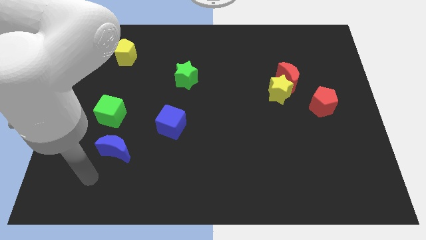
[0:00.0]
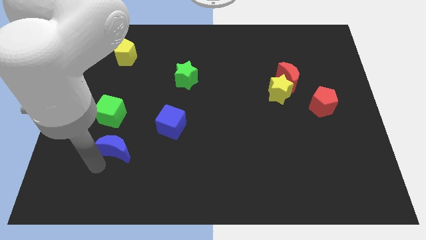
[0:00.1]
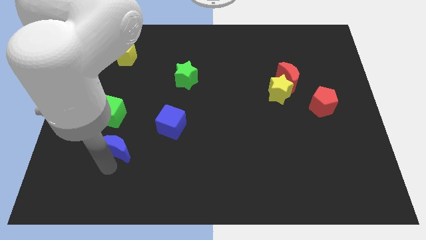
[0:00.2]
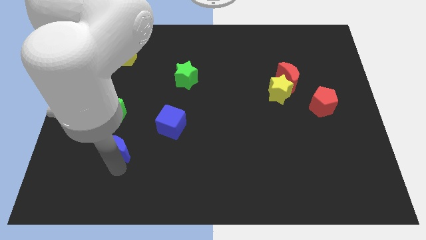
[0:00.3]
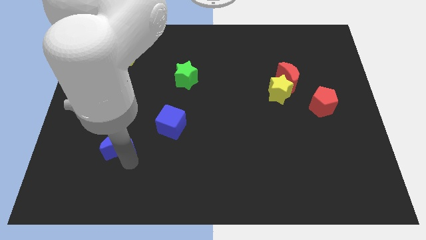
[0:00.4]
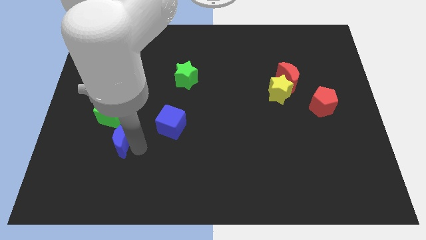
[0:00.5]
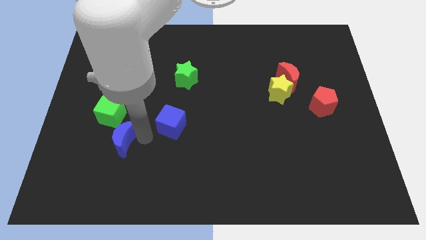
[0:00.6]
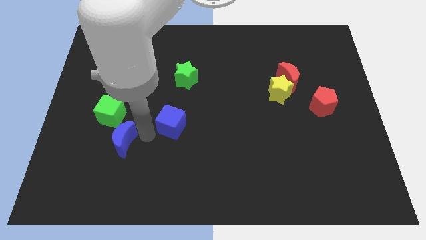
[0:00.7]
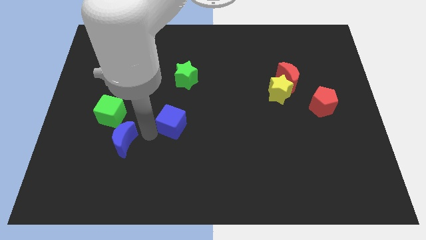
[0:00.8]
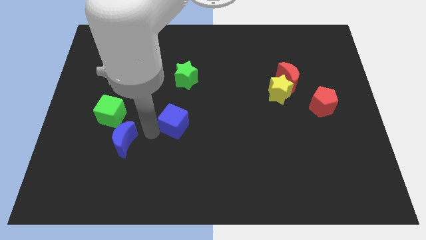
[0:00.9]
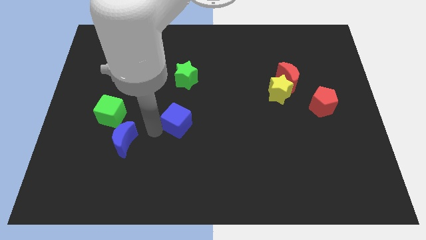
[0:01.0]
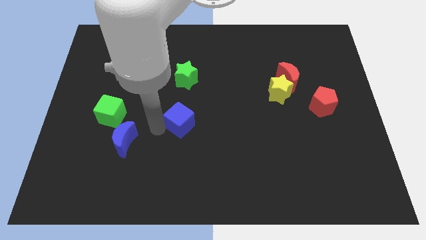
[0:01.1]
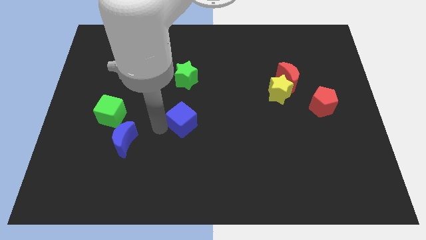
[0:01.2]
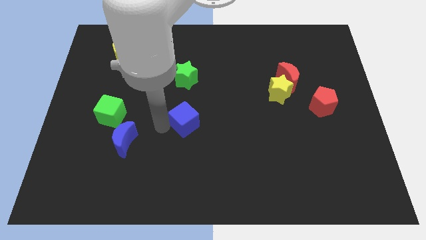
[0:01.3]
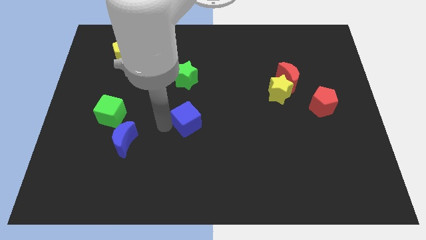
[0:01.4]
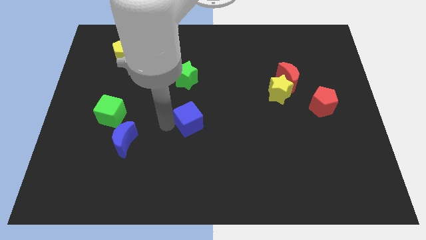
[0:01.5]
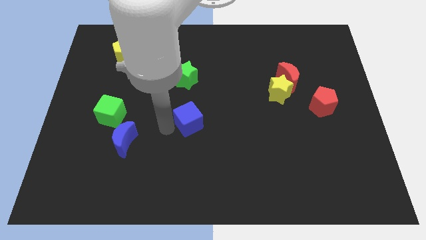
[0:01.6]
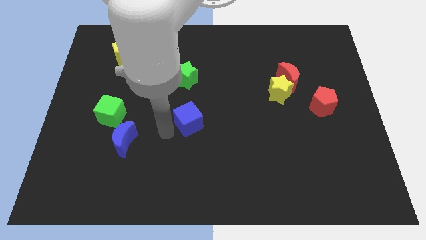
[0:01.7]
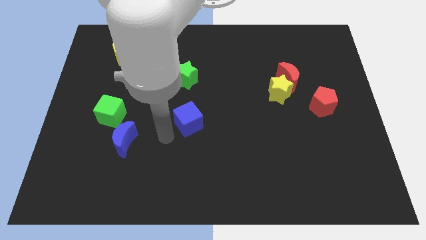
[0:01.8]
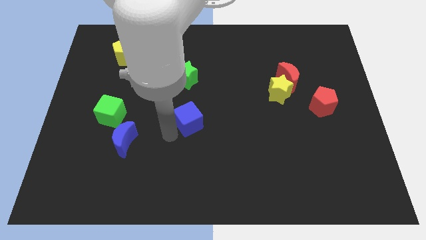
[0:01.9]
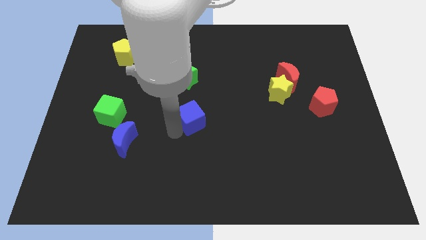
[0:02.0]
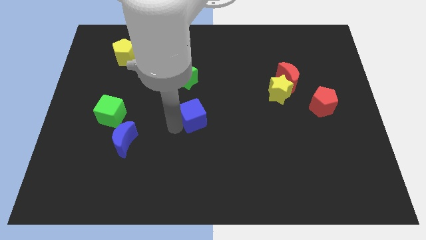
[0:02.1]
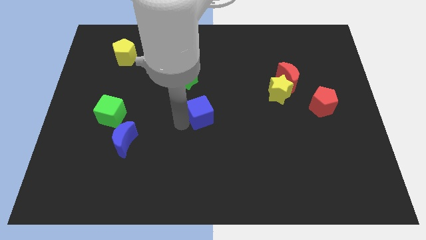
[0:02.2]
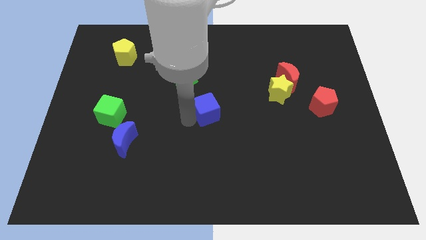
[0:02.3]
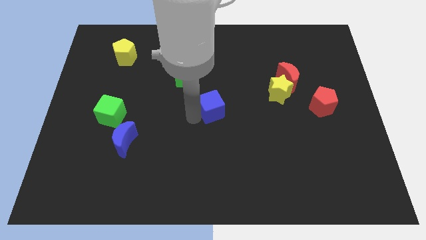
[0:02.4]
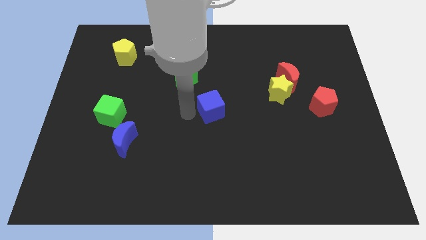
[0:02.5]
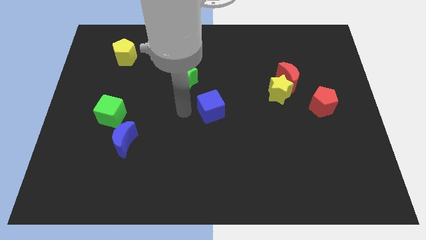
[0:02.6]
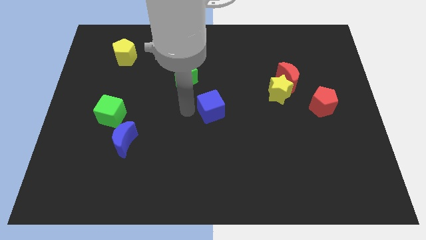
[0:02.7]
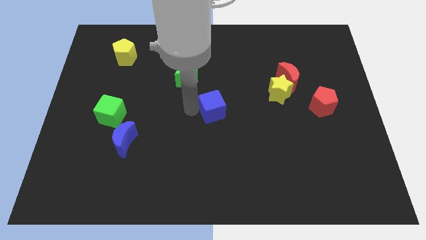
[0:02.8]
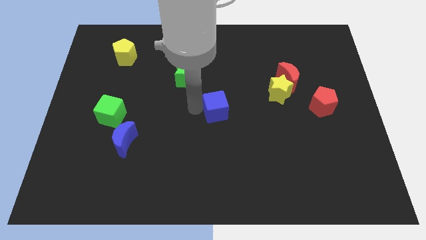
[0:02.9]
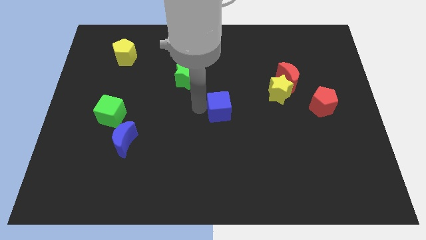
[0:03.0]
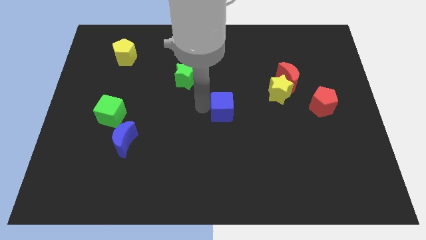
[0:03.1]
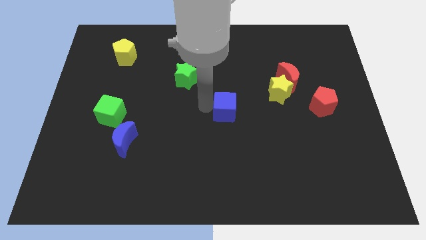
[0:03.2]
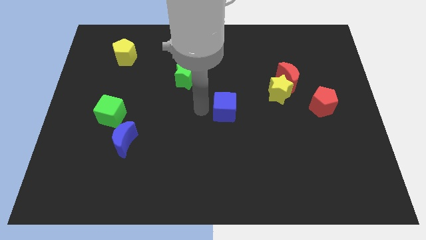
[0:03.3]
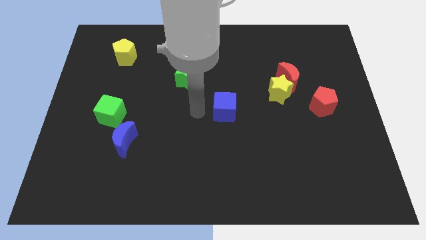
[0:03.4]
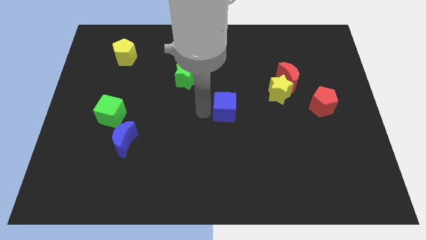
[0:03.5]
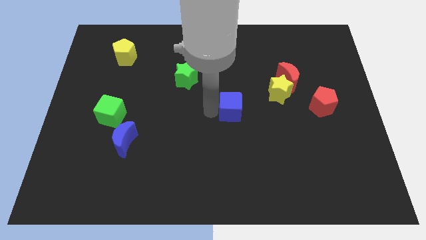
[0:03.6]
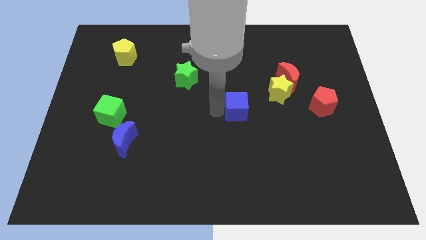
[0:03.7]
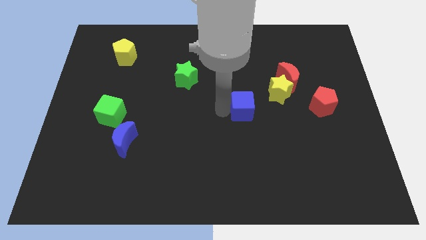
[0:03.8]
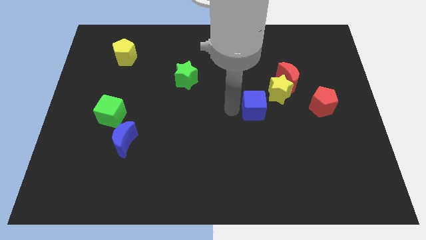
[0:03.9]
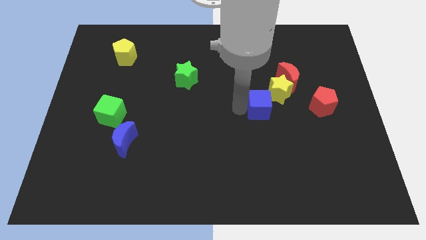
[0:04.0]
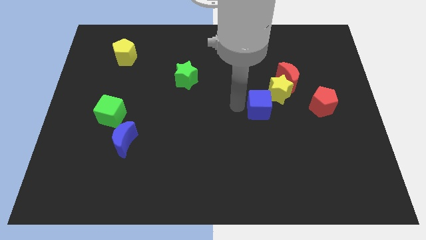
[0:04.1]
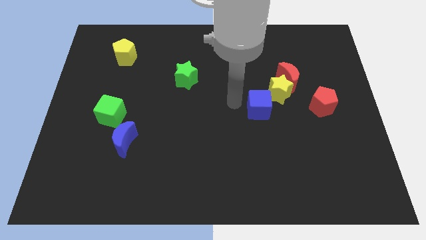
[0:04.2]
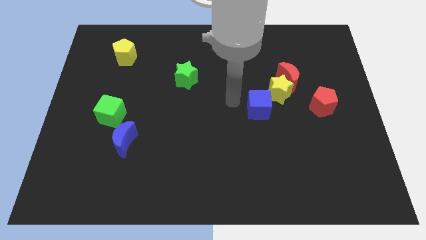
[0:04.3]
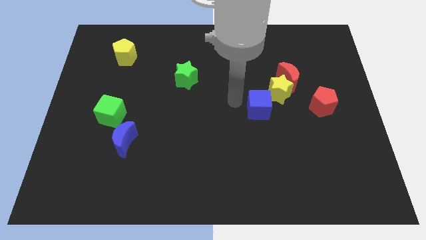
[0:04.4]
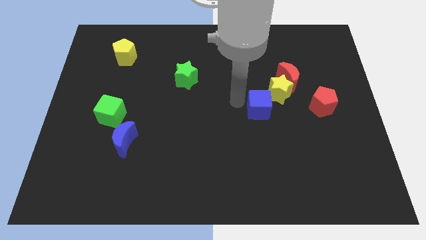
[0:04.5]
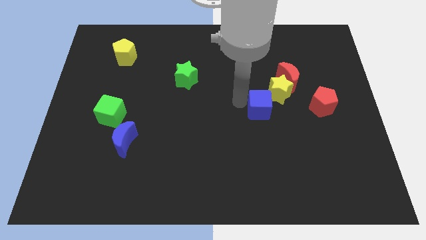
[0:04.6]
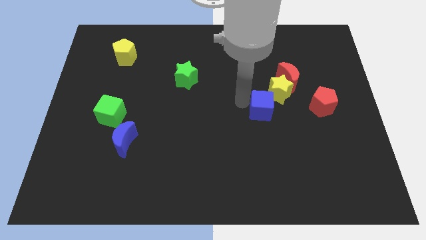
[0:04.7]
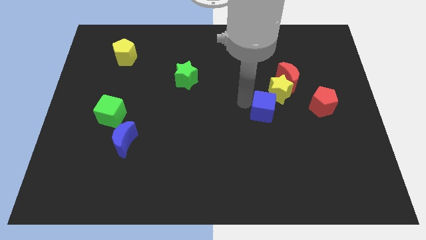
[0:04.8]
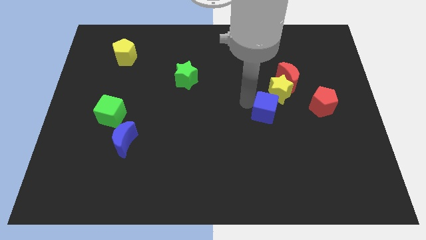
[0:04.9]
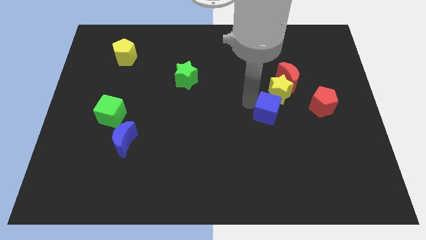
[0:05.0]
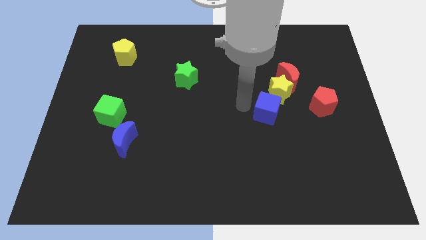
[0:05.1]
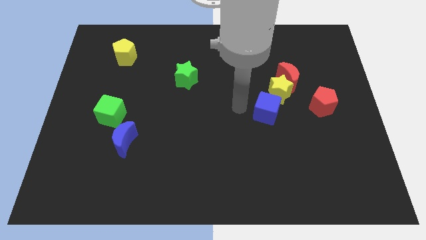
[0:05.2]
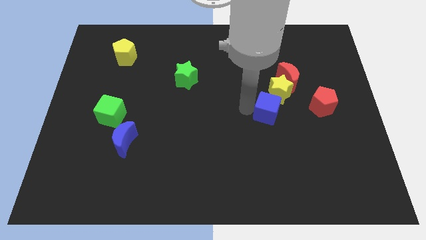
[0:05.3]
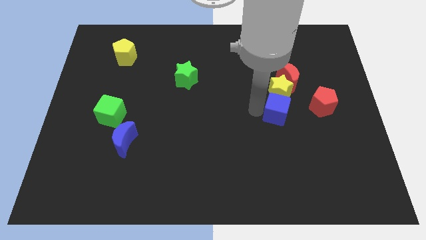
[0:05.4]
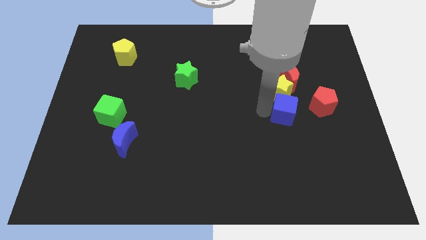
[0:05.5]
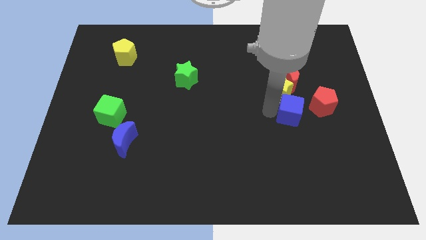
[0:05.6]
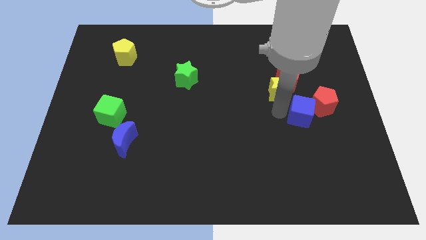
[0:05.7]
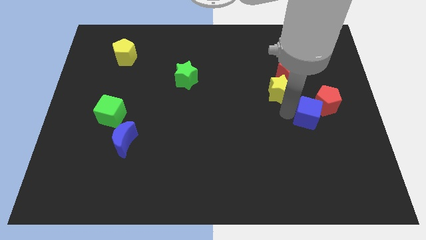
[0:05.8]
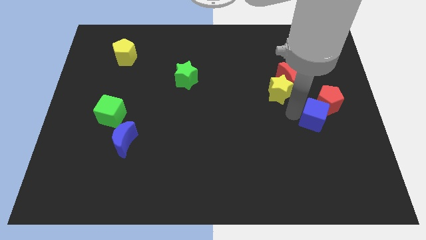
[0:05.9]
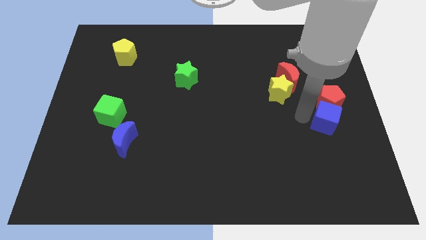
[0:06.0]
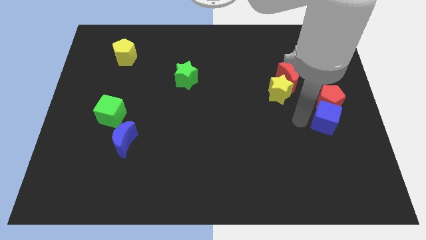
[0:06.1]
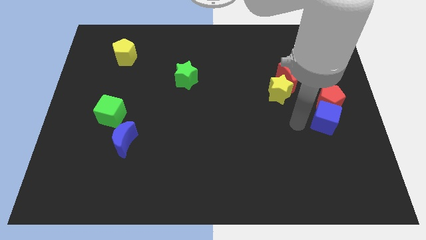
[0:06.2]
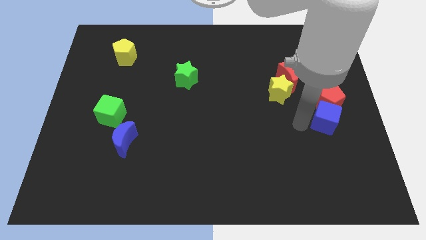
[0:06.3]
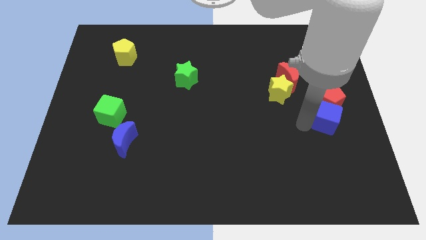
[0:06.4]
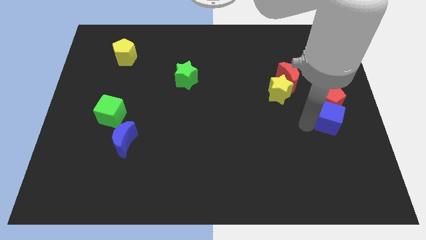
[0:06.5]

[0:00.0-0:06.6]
push the blue cube to the right side

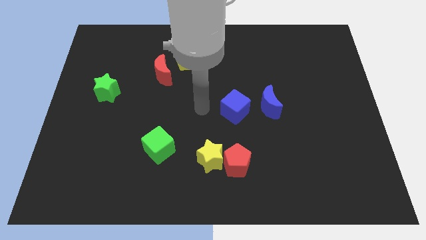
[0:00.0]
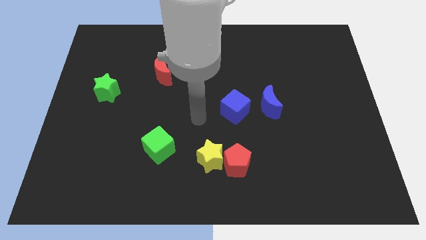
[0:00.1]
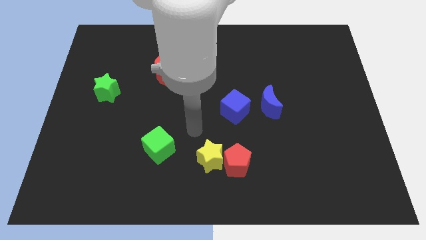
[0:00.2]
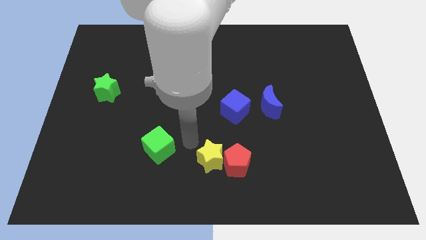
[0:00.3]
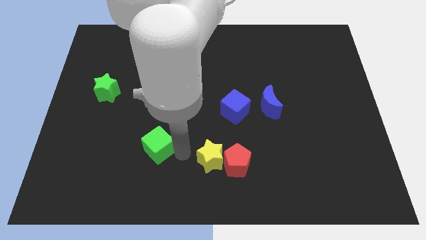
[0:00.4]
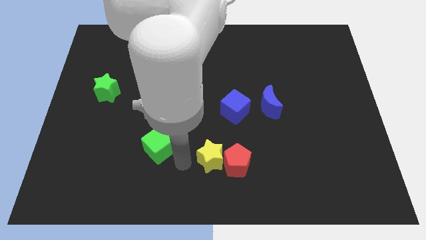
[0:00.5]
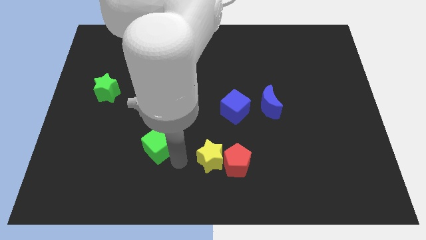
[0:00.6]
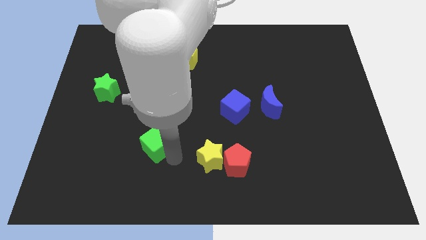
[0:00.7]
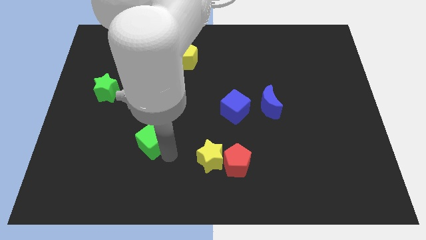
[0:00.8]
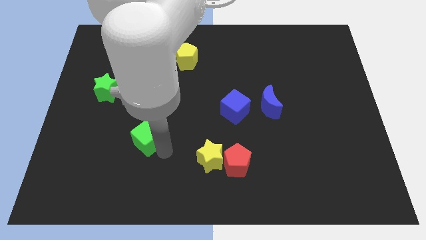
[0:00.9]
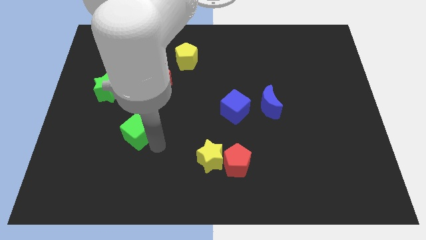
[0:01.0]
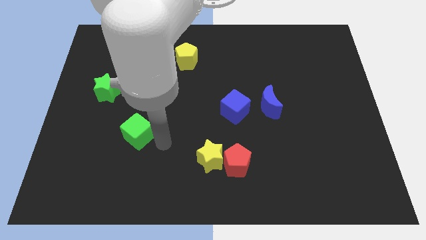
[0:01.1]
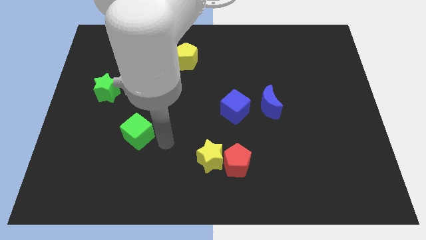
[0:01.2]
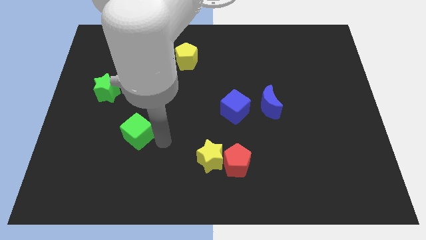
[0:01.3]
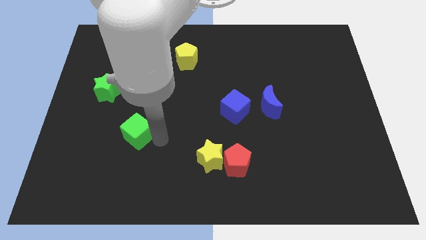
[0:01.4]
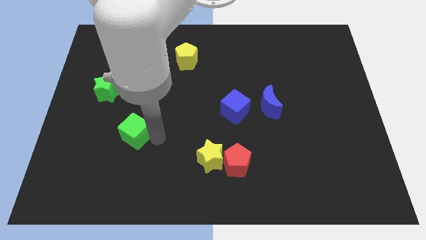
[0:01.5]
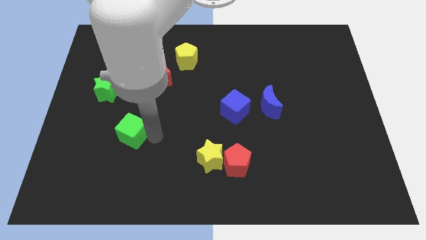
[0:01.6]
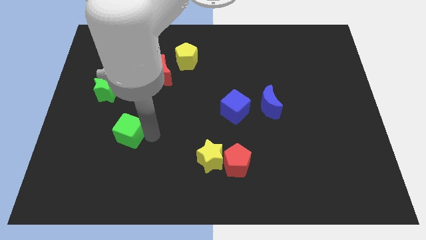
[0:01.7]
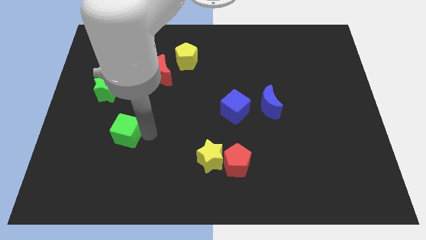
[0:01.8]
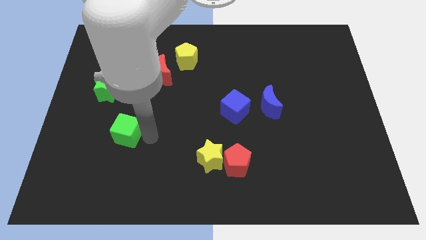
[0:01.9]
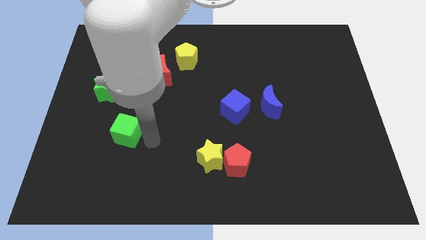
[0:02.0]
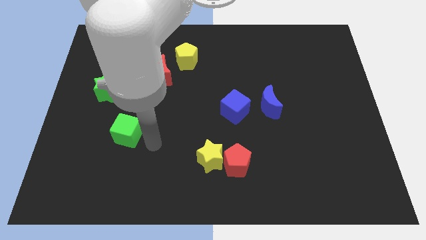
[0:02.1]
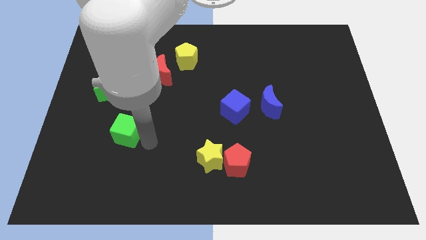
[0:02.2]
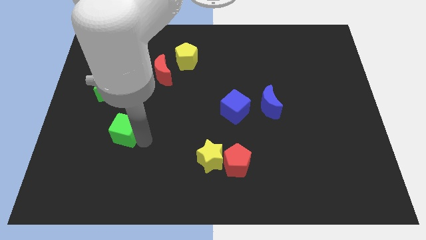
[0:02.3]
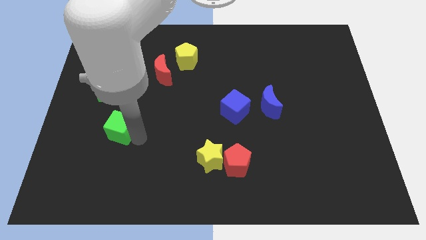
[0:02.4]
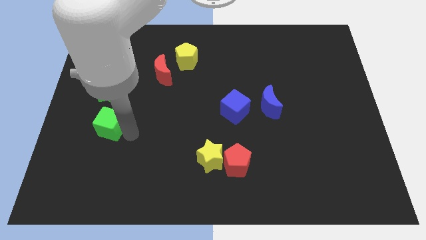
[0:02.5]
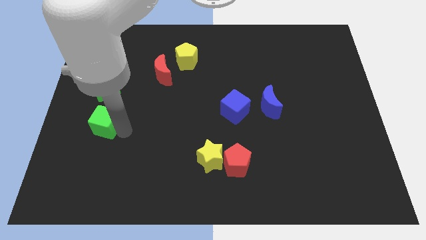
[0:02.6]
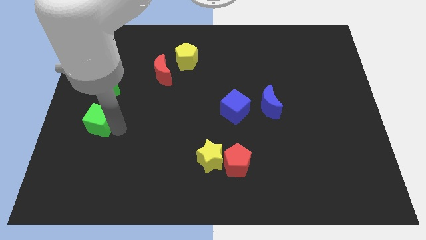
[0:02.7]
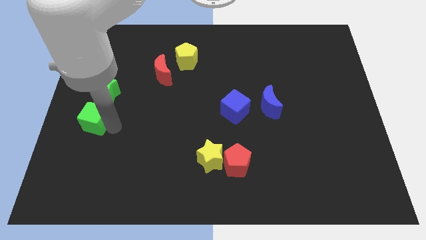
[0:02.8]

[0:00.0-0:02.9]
put the green cube to the center left
